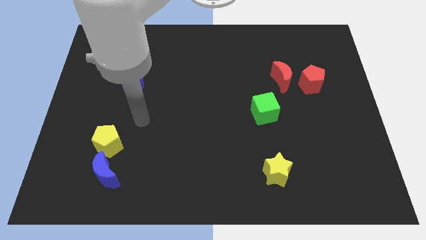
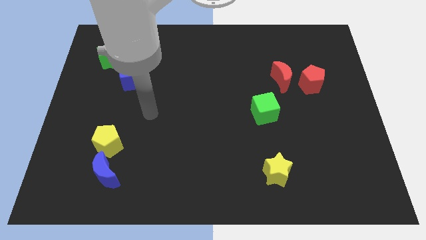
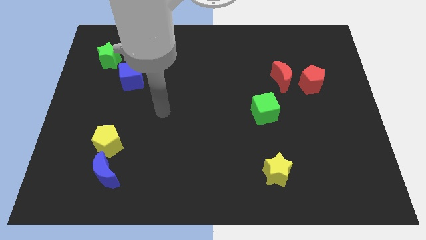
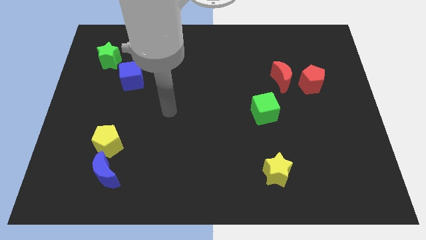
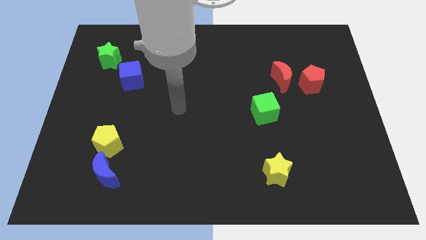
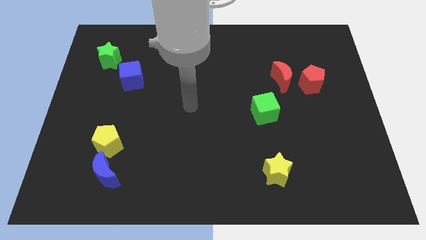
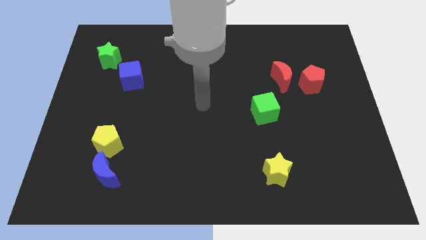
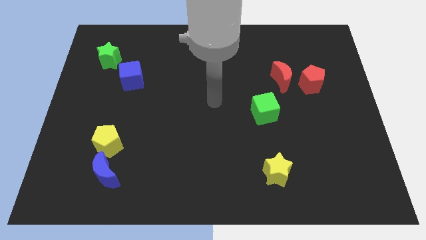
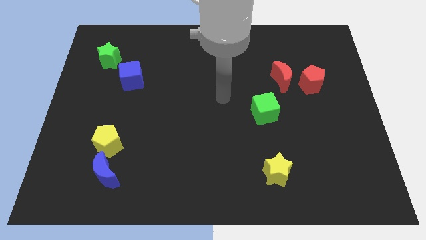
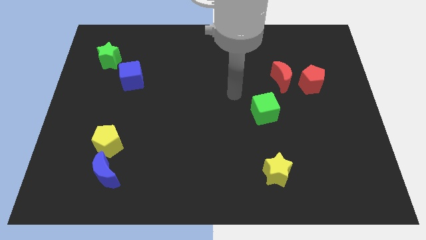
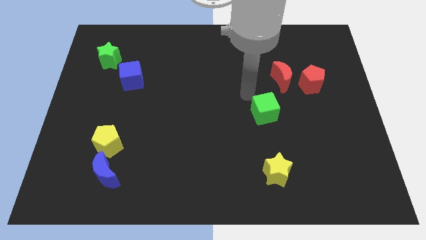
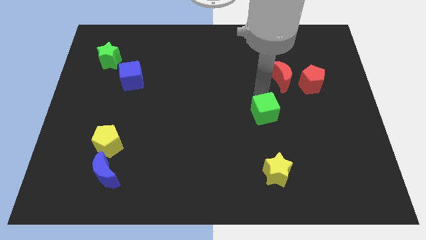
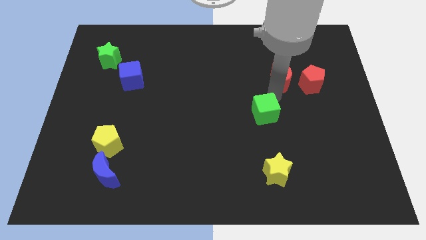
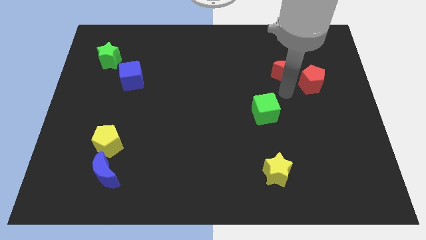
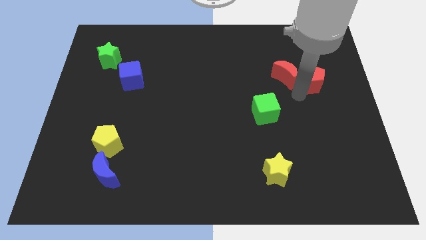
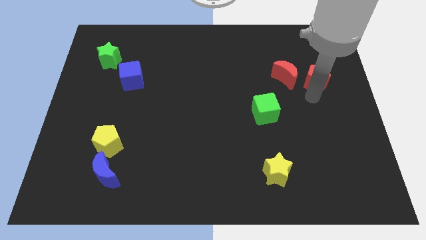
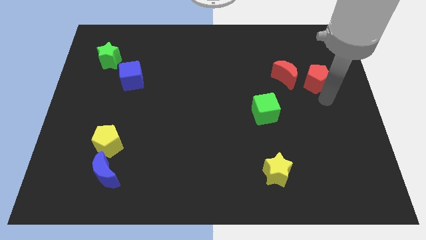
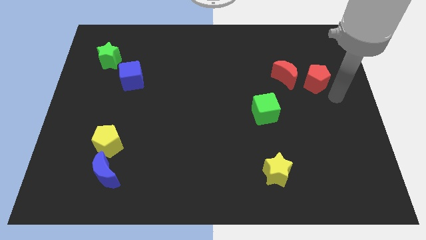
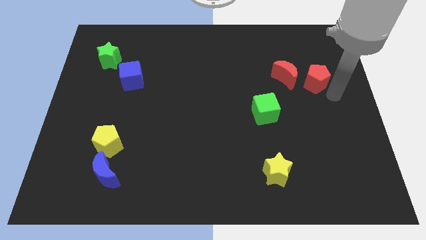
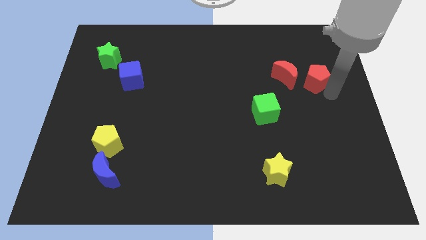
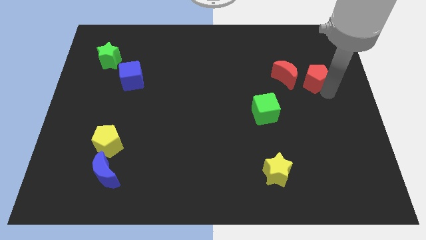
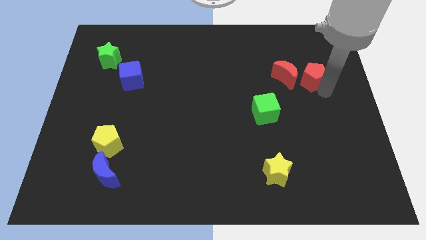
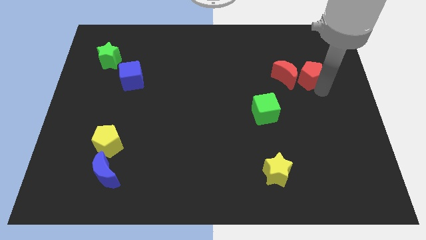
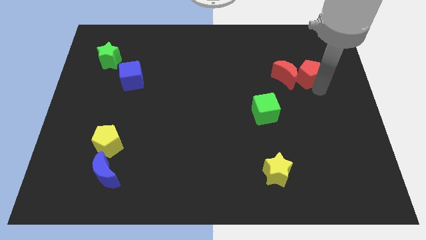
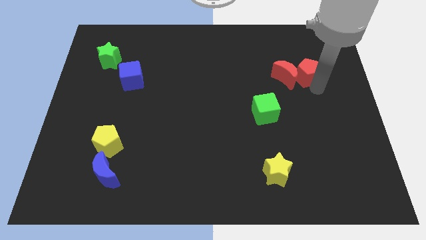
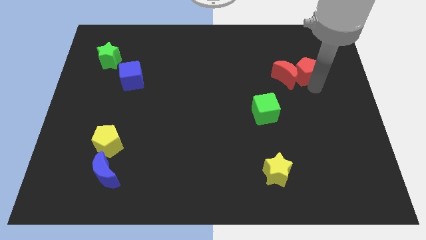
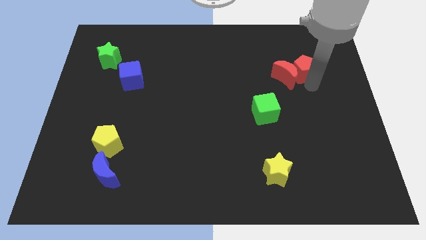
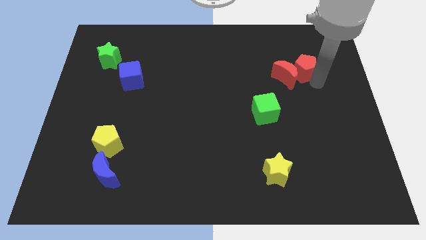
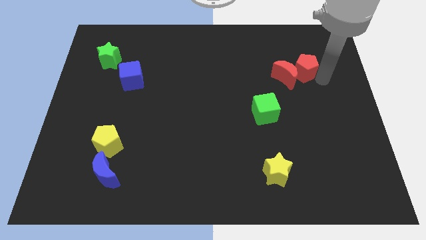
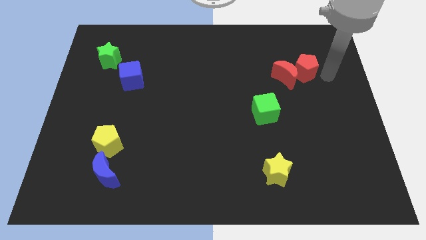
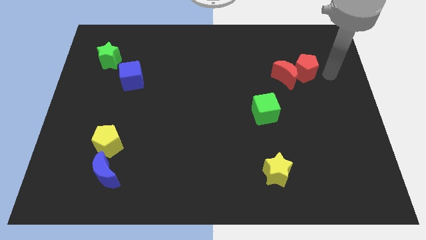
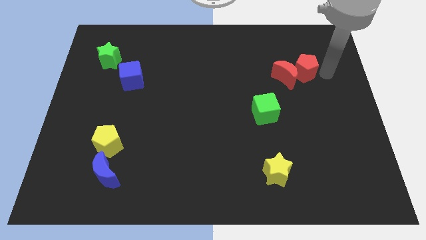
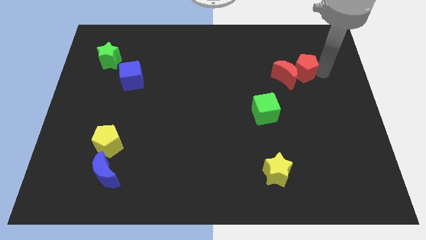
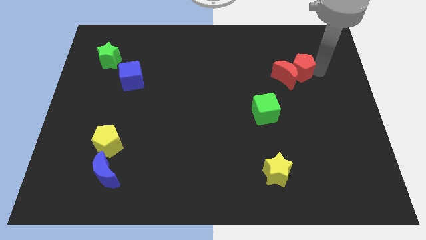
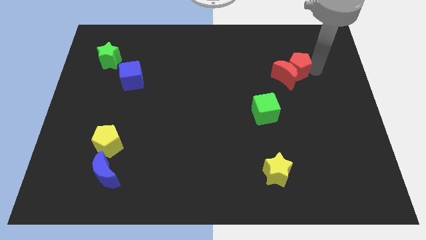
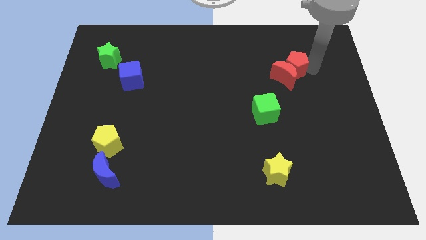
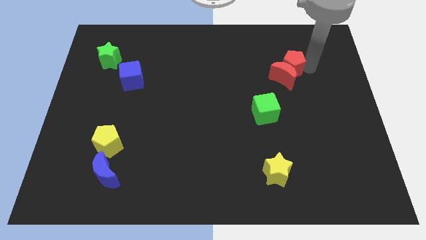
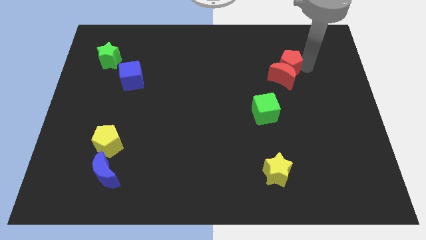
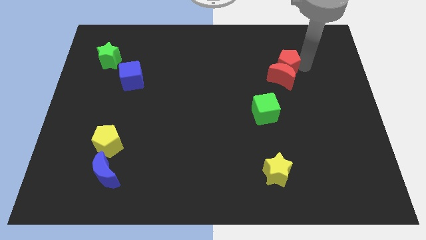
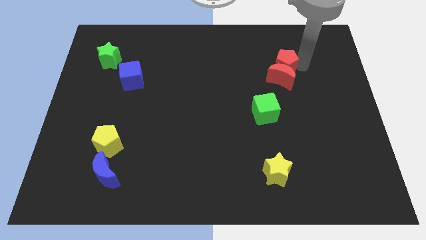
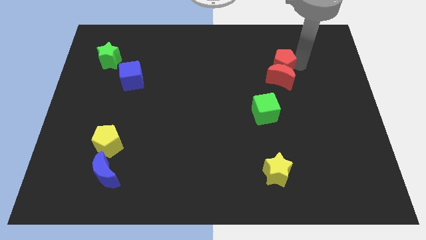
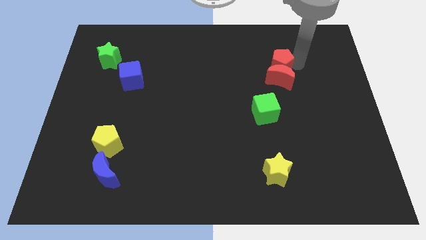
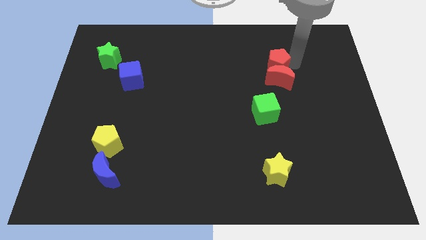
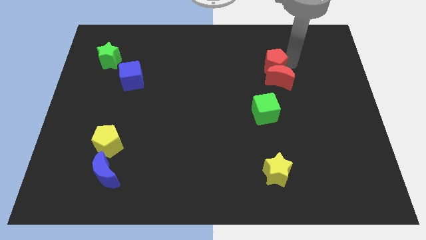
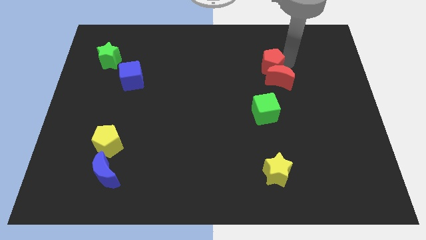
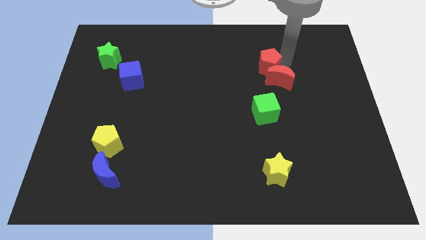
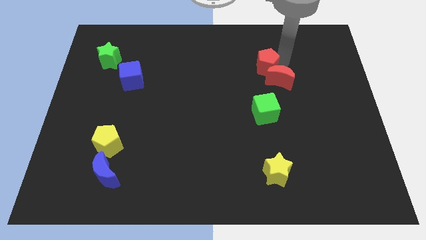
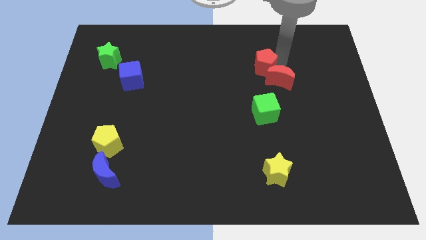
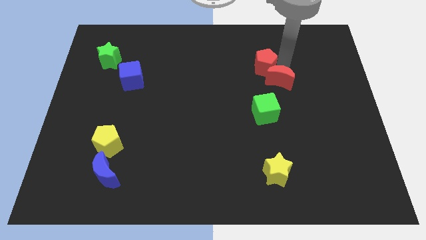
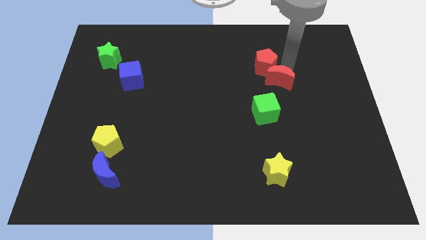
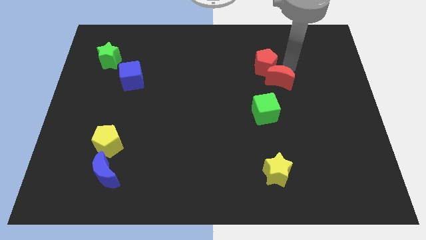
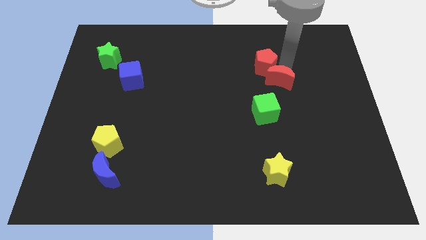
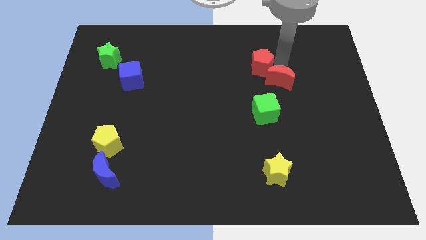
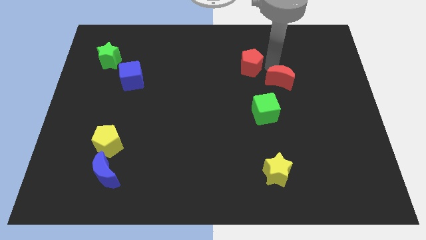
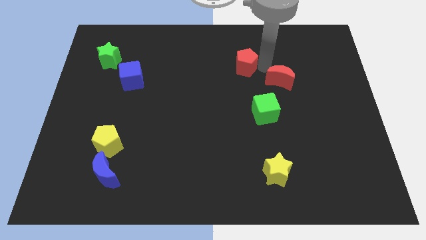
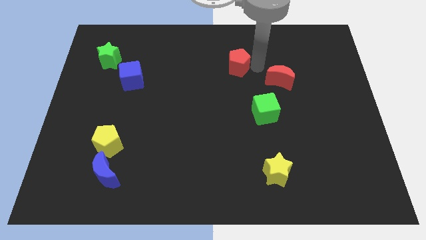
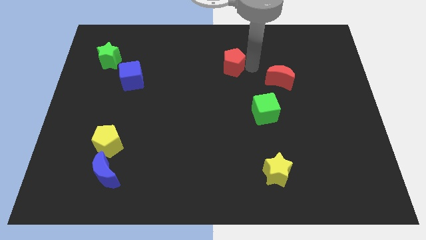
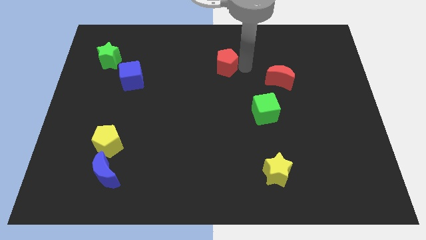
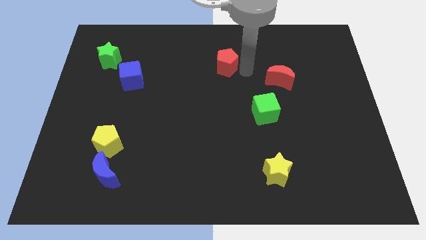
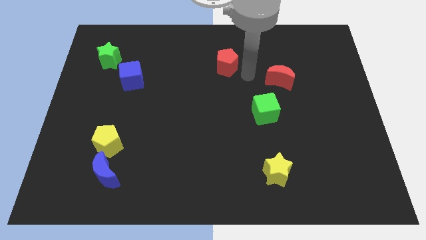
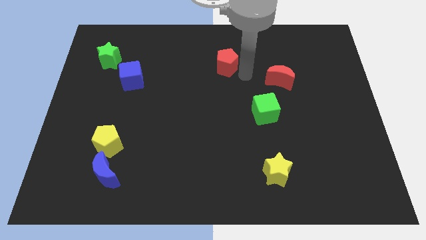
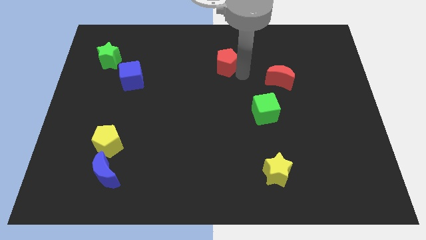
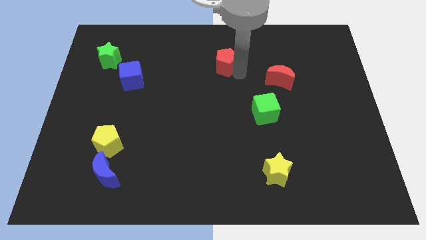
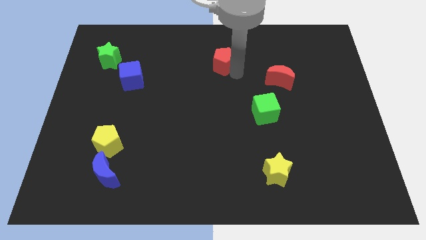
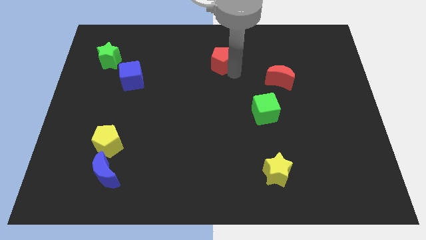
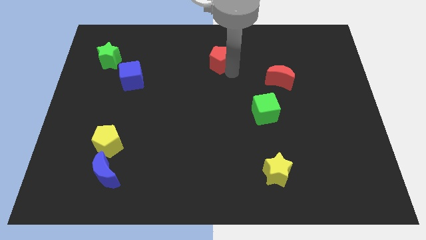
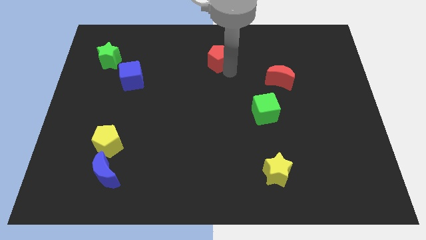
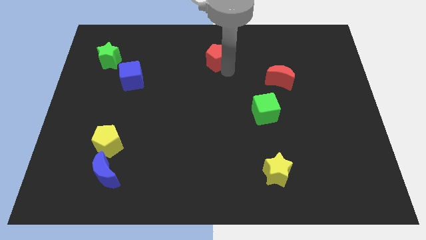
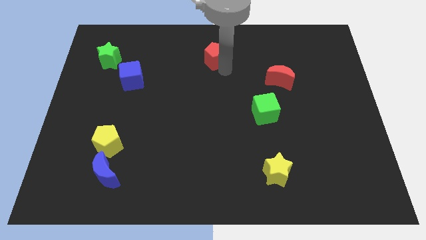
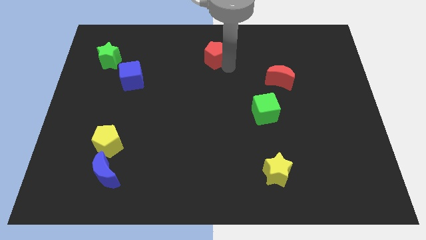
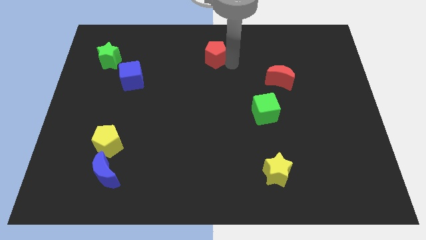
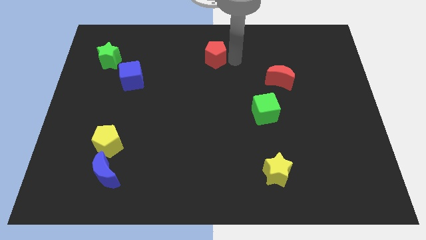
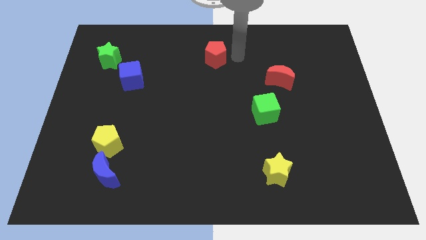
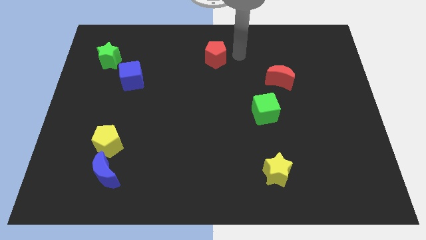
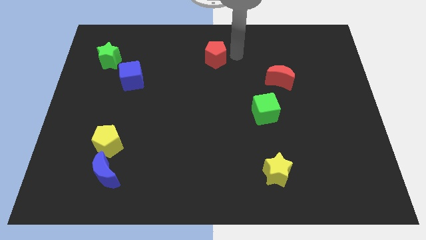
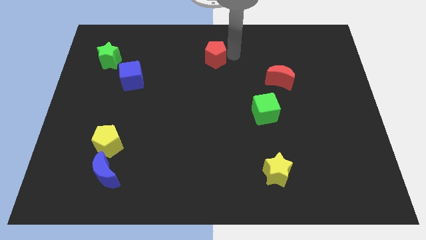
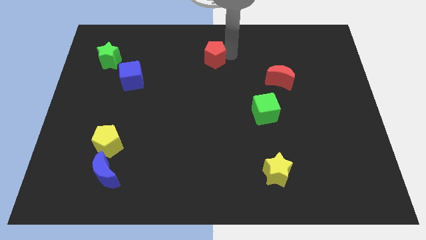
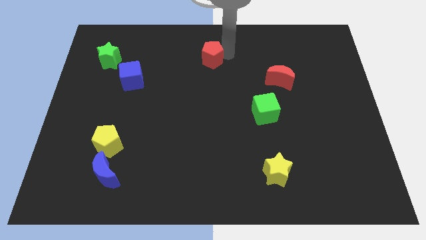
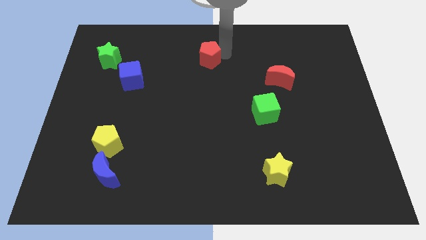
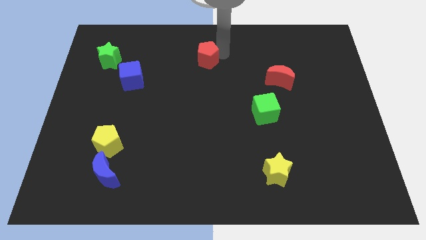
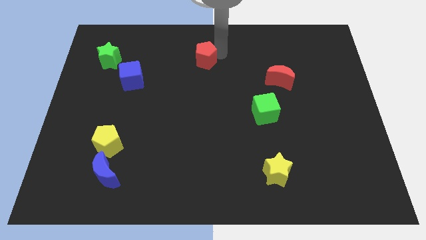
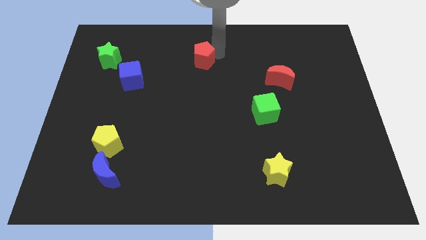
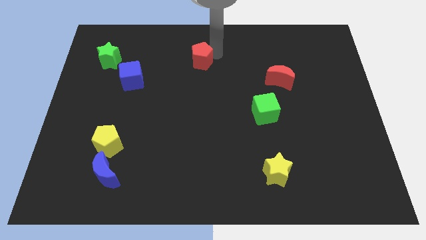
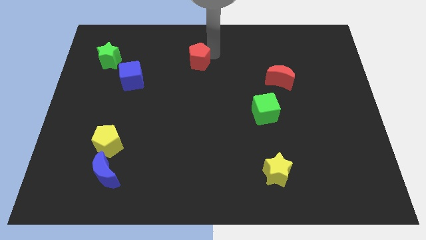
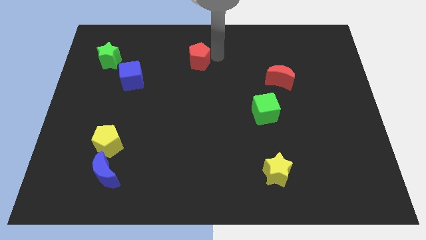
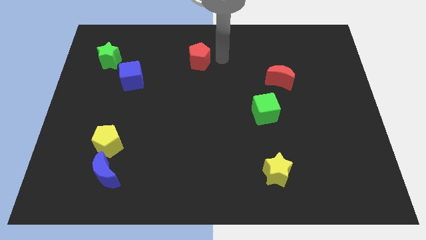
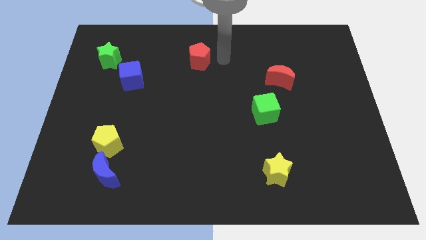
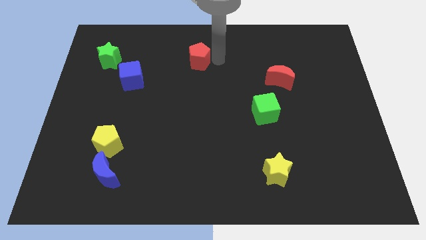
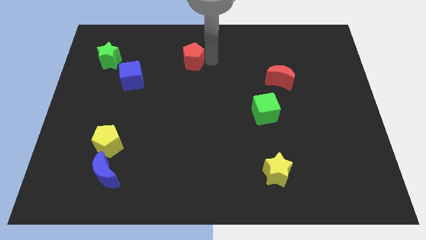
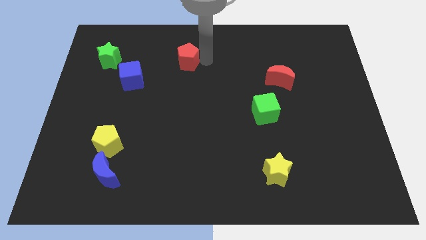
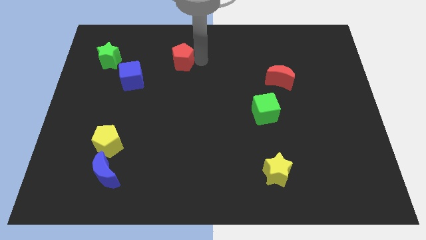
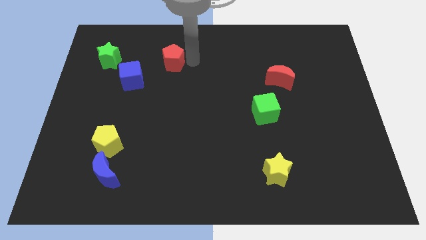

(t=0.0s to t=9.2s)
move the red pentagon right of the green star
